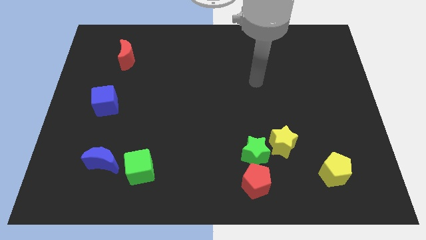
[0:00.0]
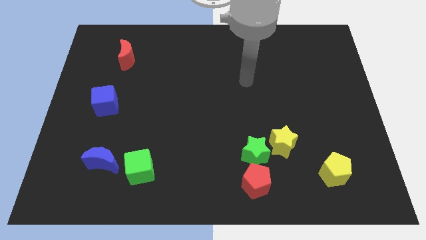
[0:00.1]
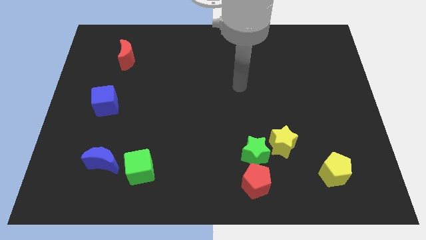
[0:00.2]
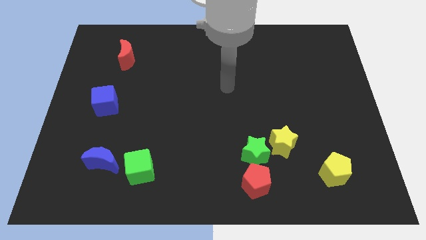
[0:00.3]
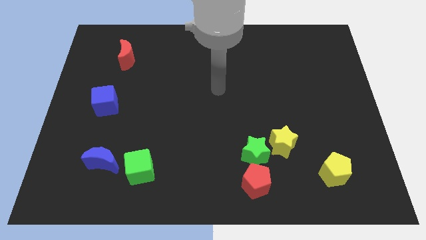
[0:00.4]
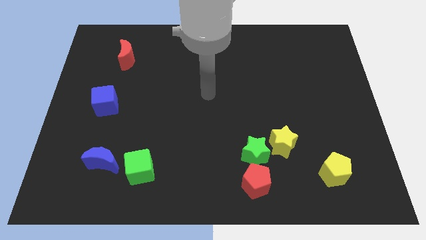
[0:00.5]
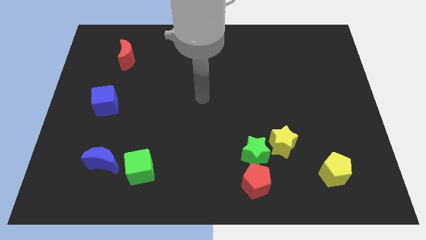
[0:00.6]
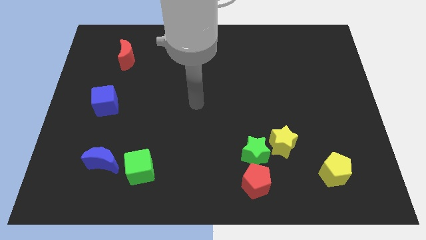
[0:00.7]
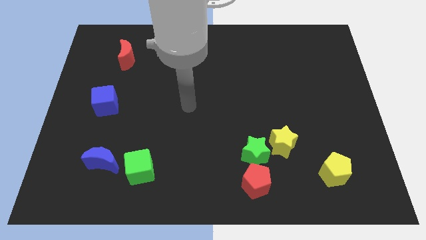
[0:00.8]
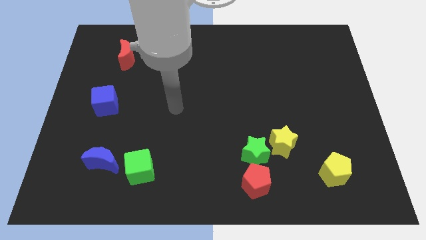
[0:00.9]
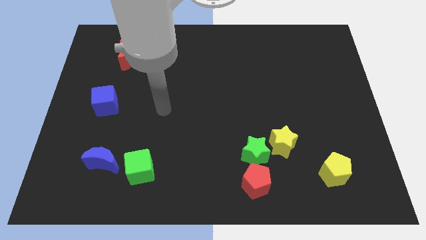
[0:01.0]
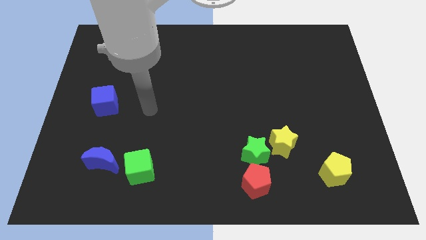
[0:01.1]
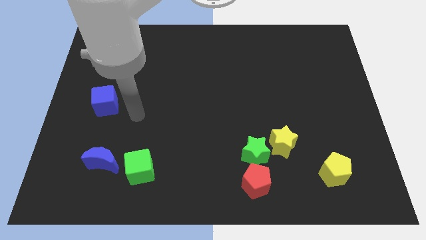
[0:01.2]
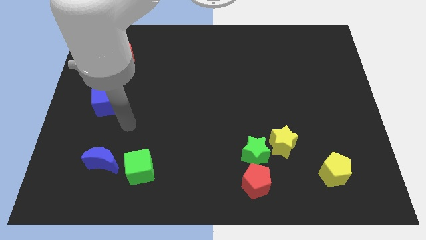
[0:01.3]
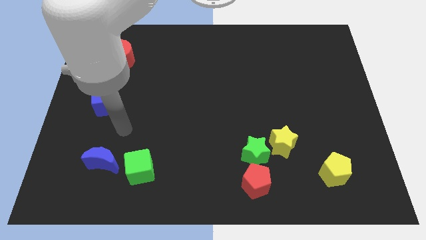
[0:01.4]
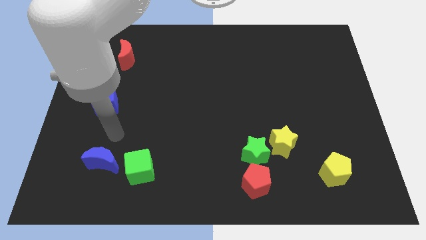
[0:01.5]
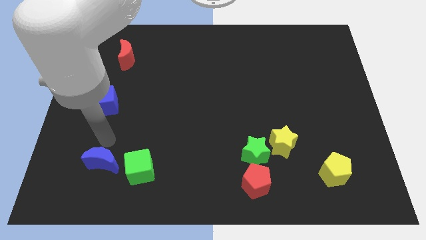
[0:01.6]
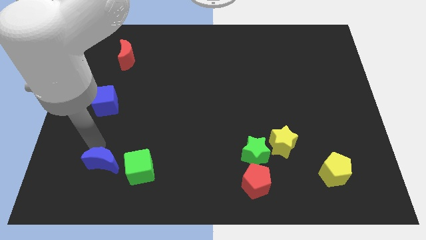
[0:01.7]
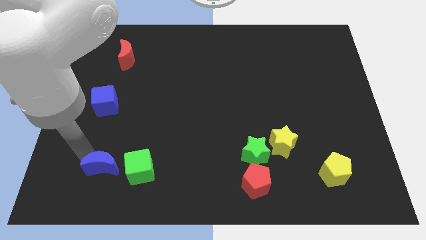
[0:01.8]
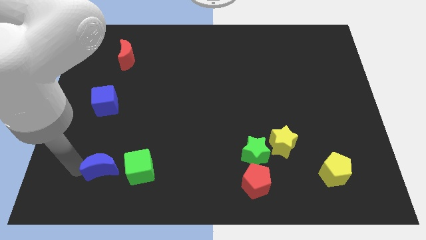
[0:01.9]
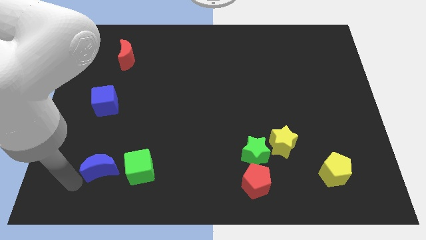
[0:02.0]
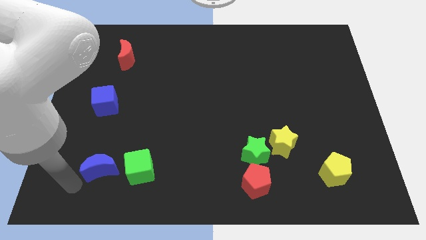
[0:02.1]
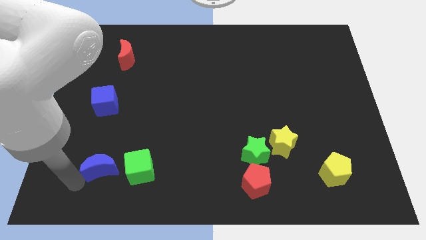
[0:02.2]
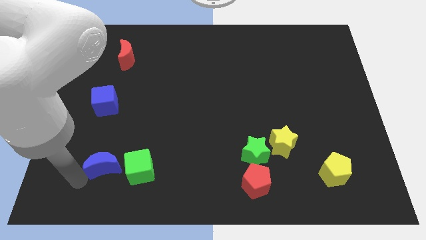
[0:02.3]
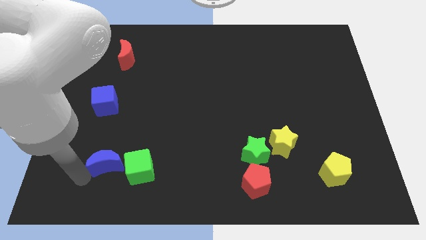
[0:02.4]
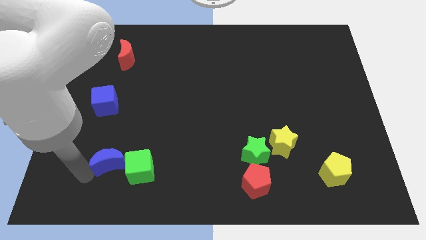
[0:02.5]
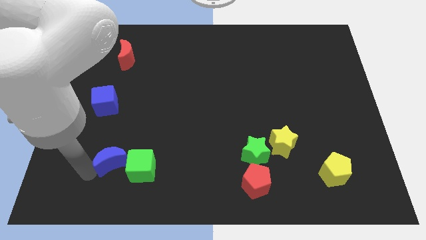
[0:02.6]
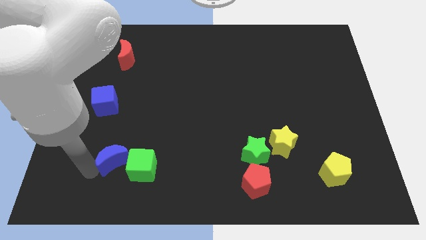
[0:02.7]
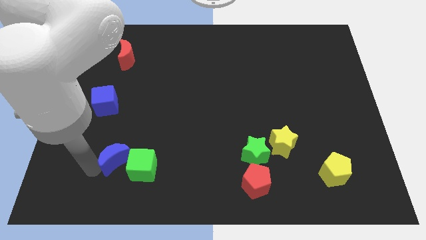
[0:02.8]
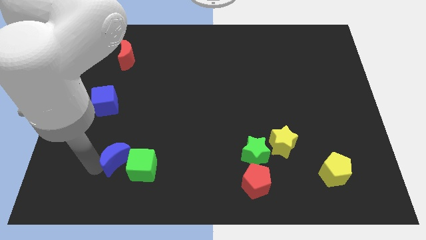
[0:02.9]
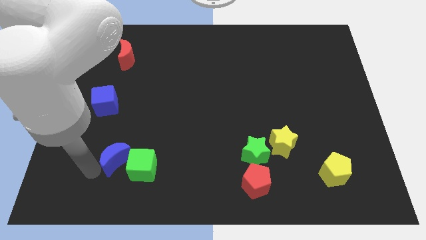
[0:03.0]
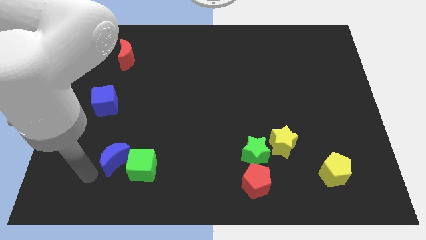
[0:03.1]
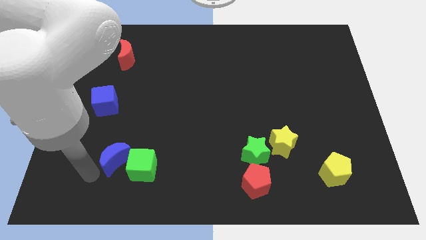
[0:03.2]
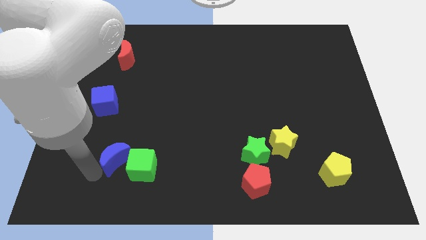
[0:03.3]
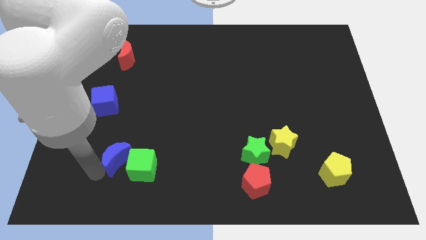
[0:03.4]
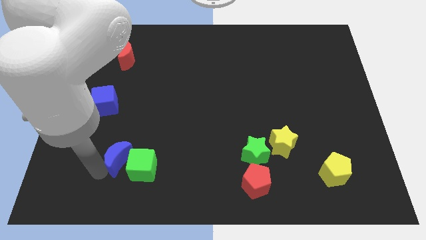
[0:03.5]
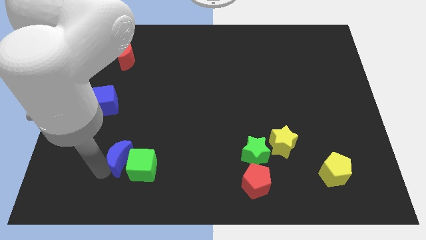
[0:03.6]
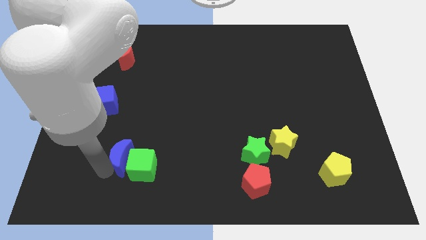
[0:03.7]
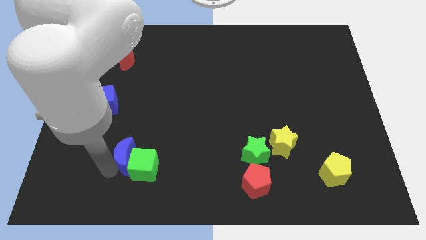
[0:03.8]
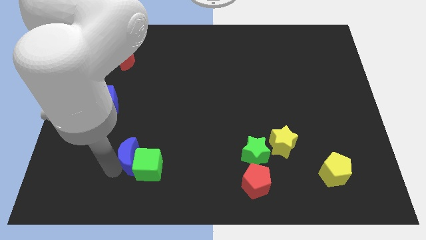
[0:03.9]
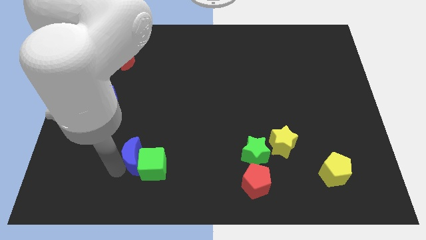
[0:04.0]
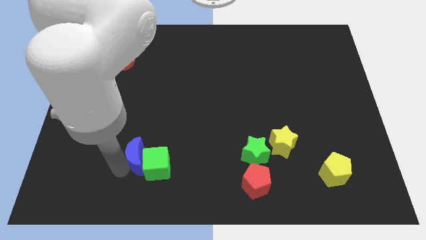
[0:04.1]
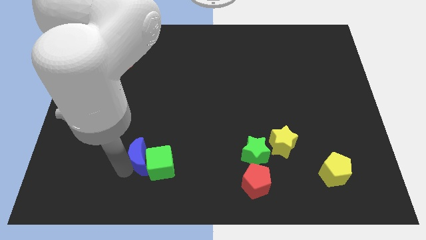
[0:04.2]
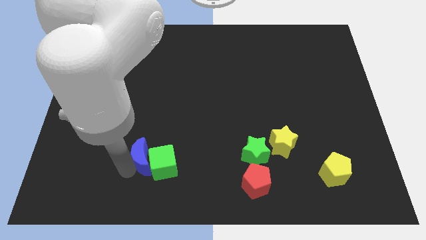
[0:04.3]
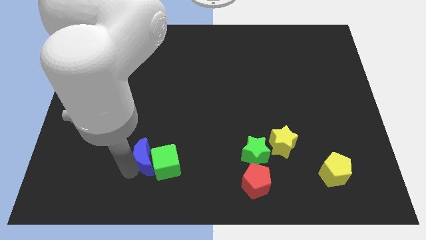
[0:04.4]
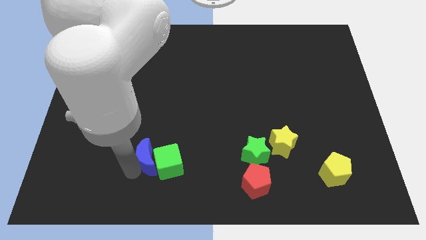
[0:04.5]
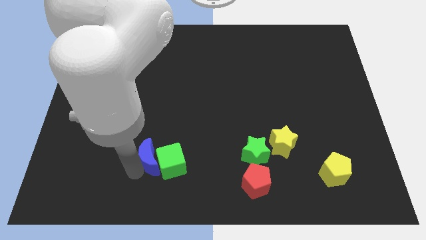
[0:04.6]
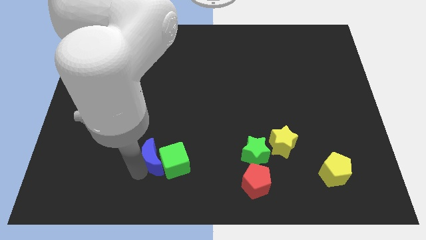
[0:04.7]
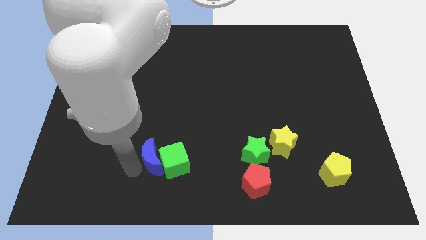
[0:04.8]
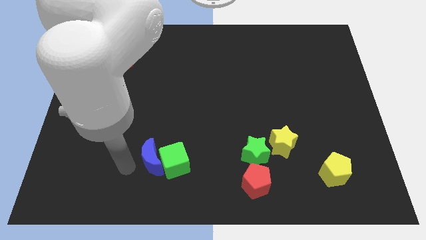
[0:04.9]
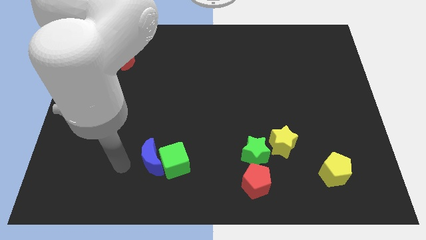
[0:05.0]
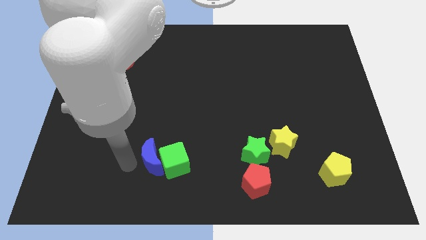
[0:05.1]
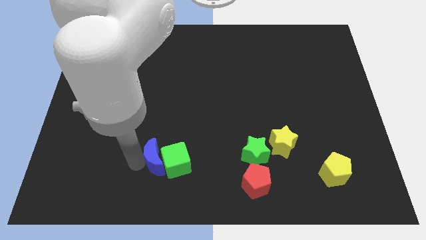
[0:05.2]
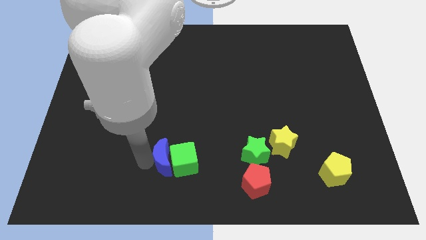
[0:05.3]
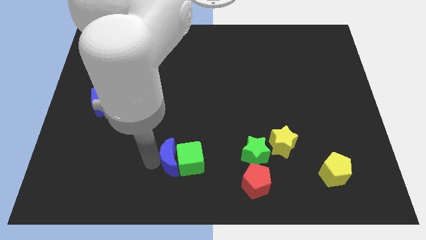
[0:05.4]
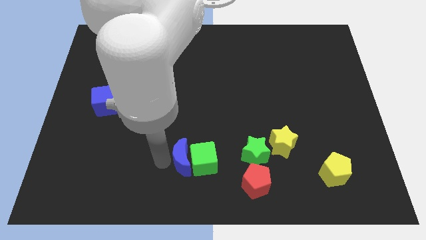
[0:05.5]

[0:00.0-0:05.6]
push the blue moon to the left of the green star

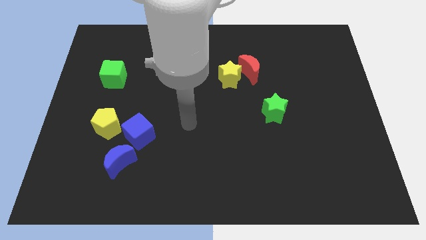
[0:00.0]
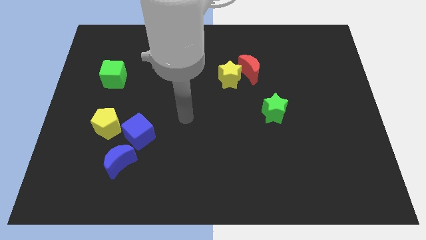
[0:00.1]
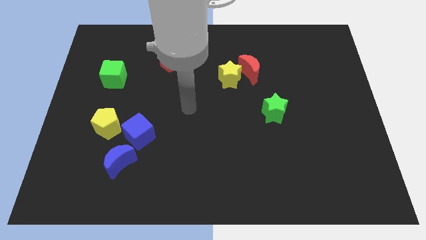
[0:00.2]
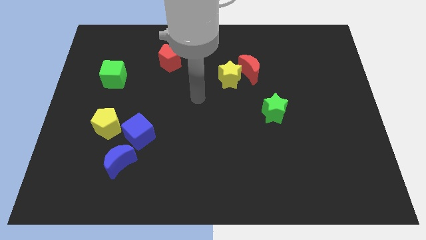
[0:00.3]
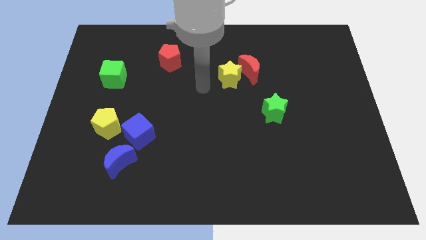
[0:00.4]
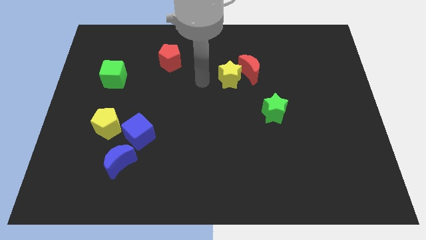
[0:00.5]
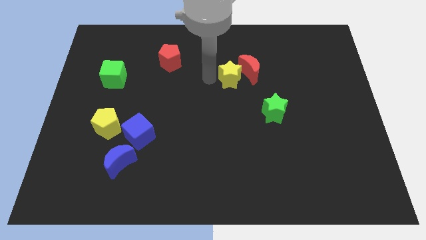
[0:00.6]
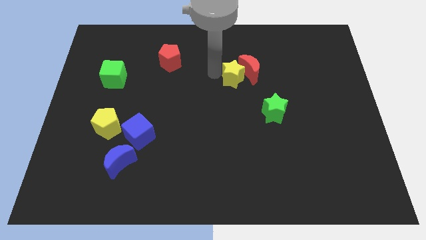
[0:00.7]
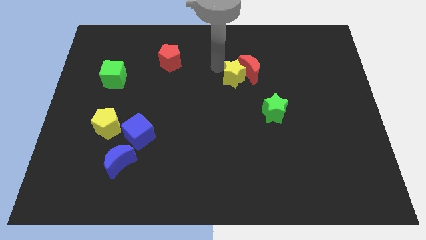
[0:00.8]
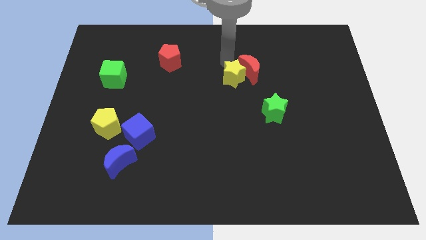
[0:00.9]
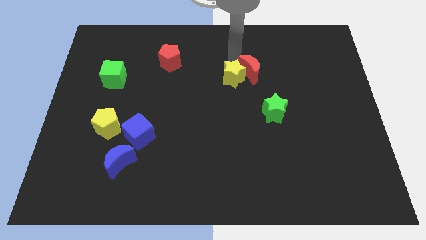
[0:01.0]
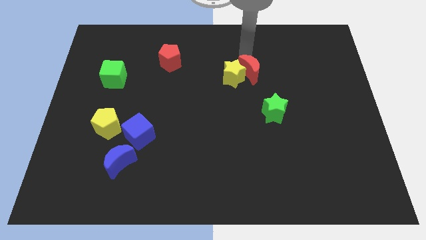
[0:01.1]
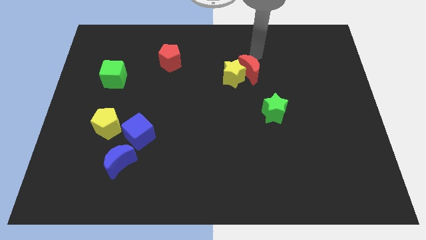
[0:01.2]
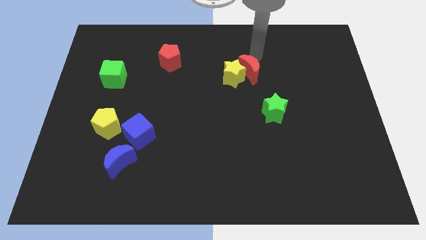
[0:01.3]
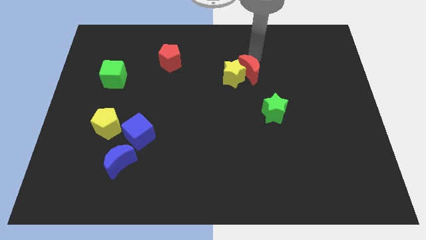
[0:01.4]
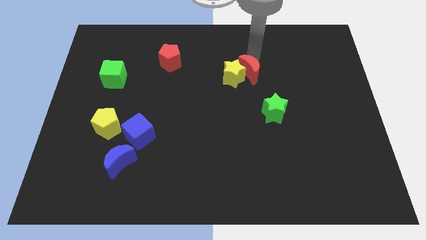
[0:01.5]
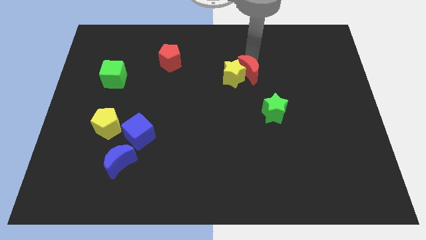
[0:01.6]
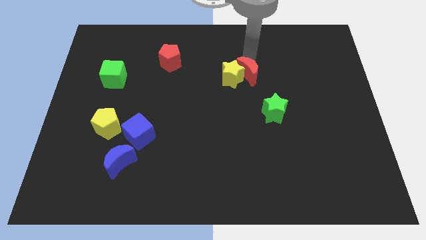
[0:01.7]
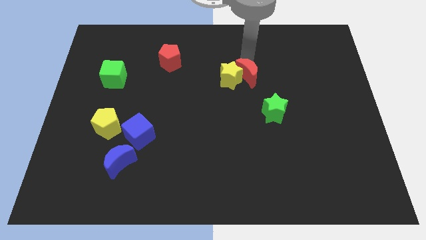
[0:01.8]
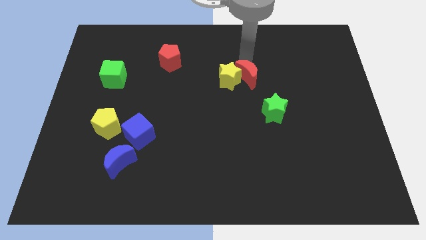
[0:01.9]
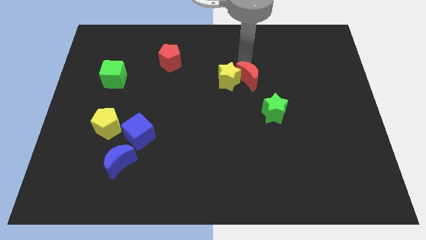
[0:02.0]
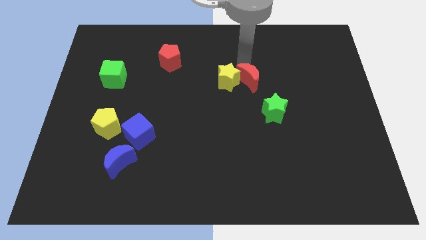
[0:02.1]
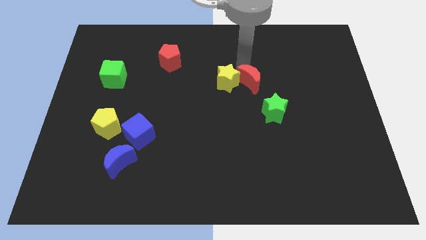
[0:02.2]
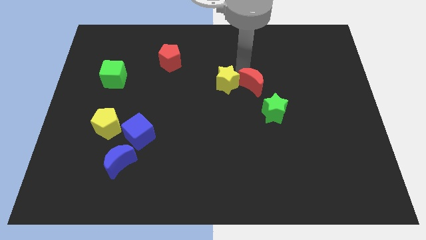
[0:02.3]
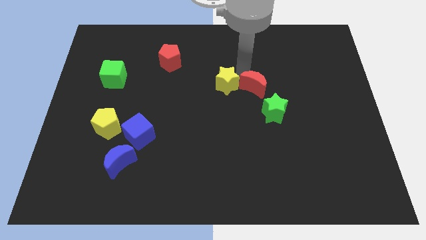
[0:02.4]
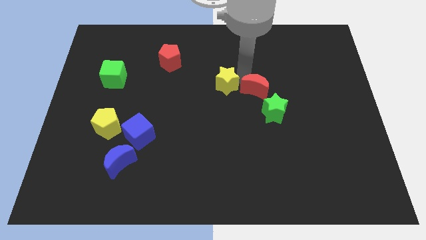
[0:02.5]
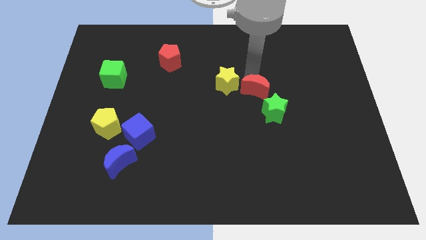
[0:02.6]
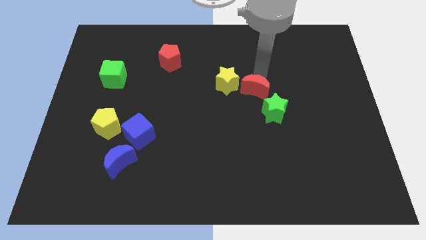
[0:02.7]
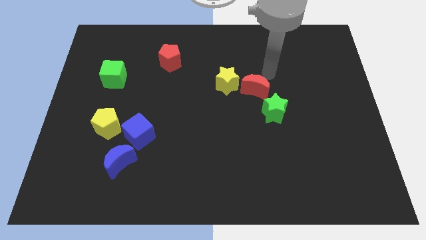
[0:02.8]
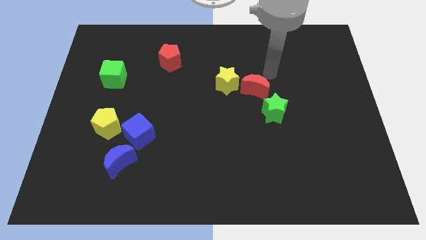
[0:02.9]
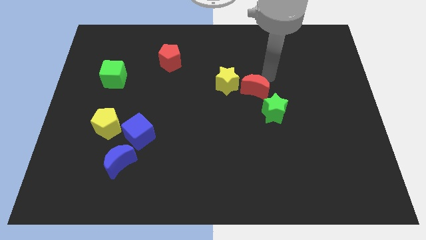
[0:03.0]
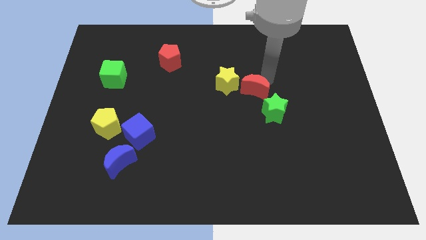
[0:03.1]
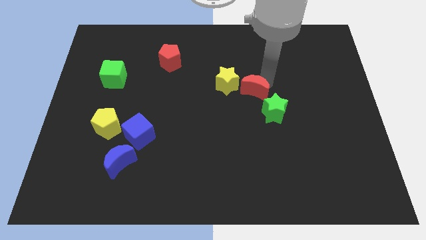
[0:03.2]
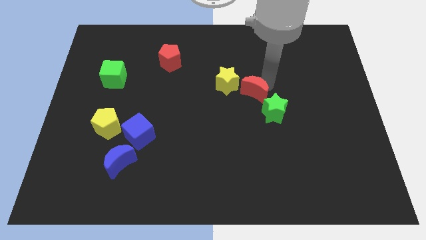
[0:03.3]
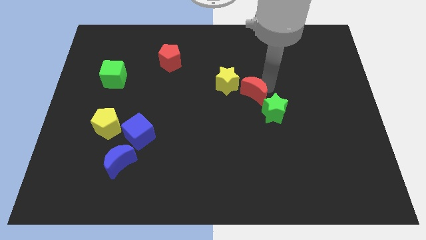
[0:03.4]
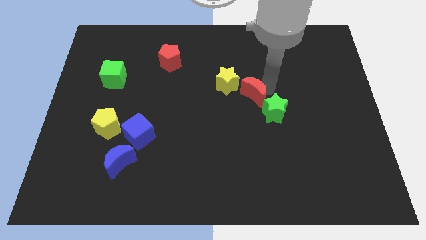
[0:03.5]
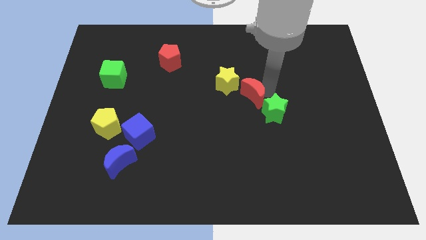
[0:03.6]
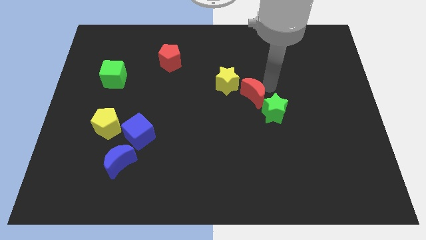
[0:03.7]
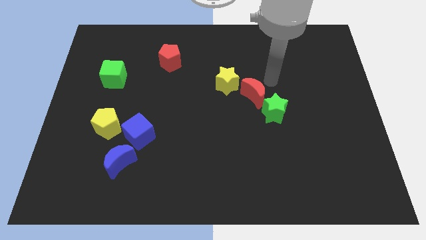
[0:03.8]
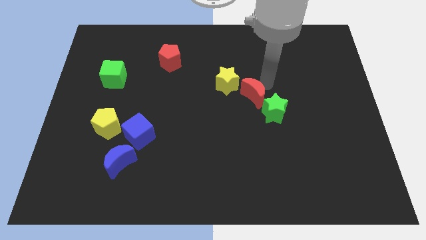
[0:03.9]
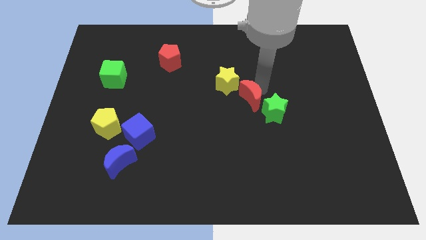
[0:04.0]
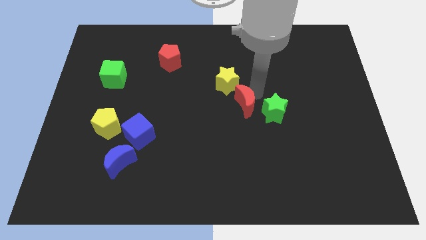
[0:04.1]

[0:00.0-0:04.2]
push the red moon to the bottom side of the yellow star
